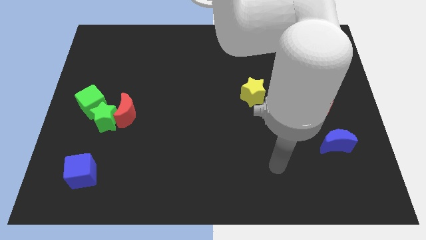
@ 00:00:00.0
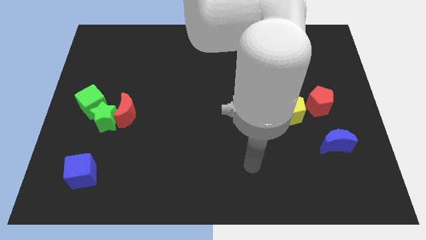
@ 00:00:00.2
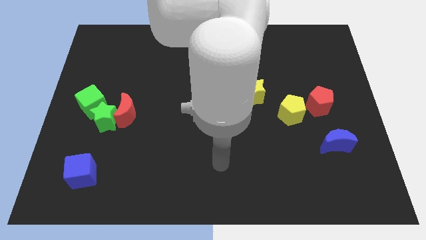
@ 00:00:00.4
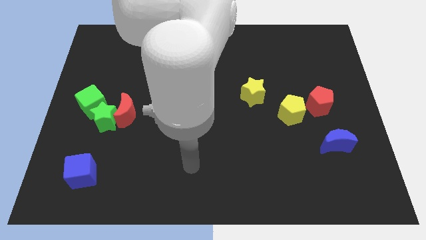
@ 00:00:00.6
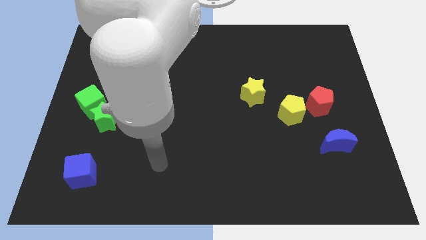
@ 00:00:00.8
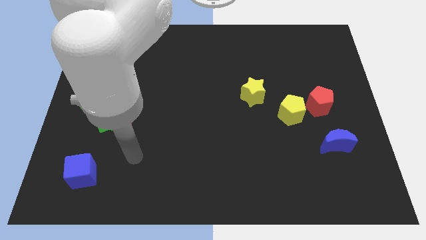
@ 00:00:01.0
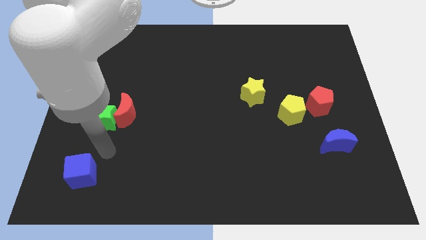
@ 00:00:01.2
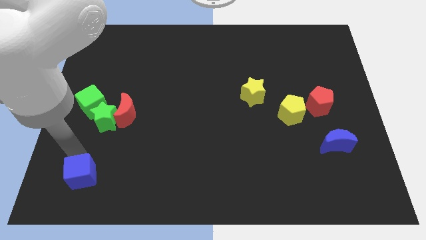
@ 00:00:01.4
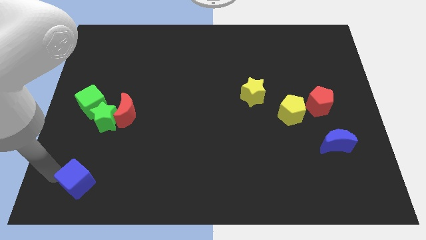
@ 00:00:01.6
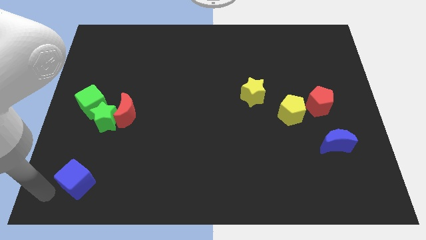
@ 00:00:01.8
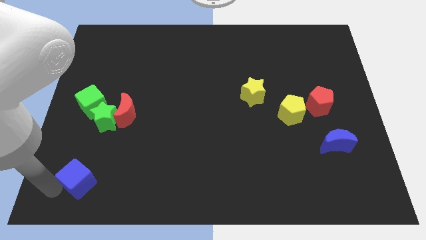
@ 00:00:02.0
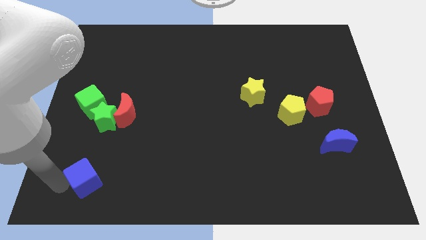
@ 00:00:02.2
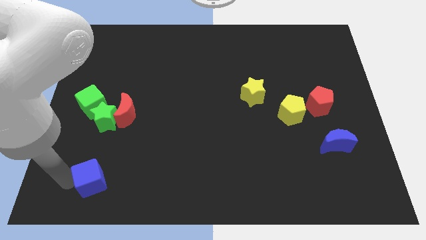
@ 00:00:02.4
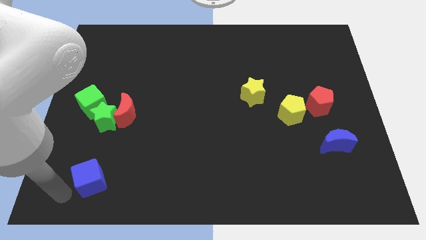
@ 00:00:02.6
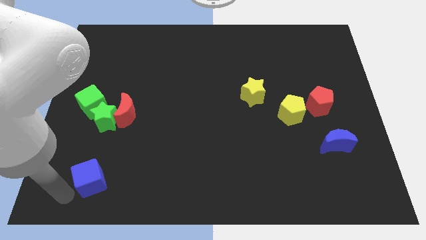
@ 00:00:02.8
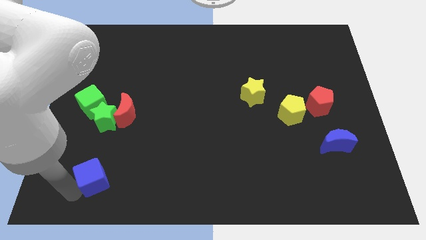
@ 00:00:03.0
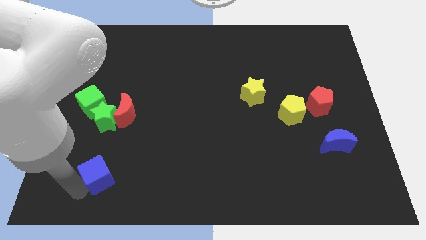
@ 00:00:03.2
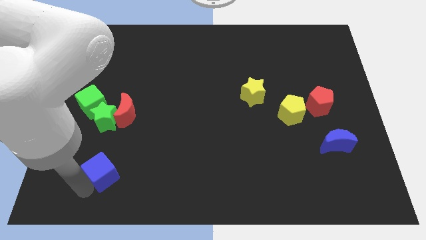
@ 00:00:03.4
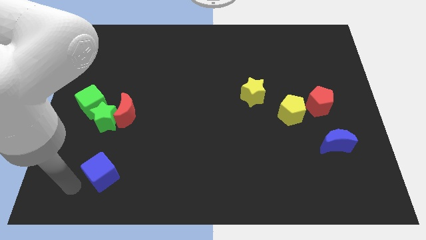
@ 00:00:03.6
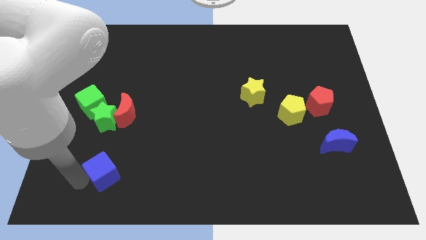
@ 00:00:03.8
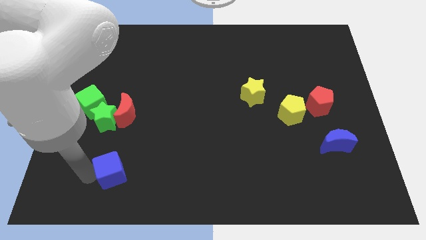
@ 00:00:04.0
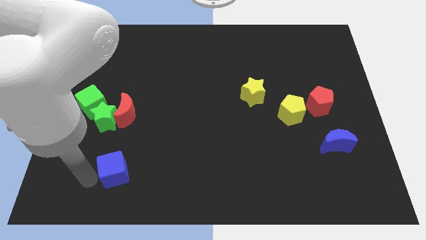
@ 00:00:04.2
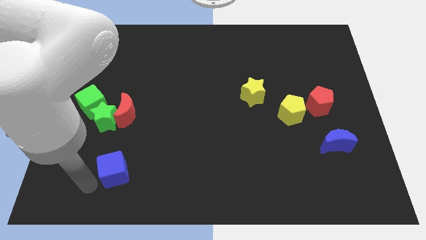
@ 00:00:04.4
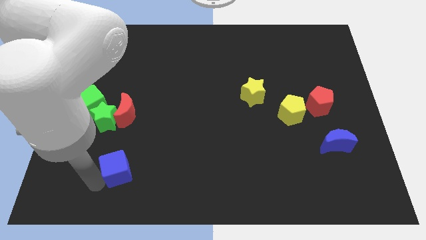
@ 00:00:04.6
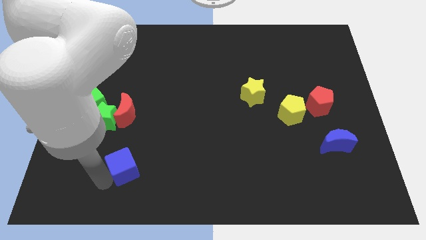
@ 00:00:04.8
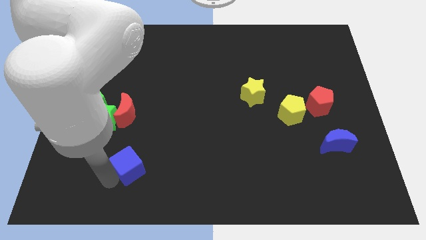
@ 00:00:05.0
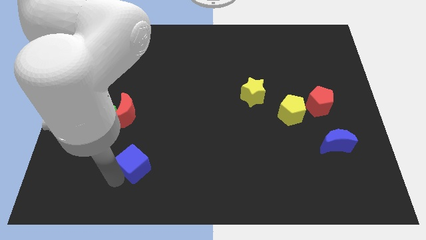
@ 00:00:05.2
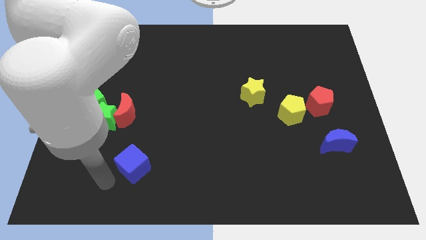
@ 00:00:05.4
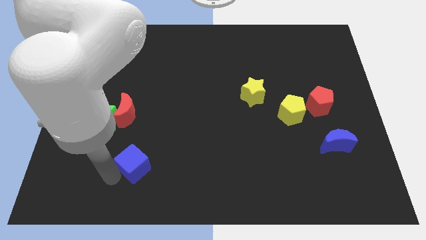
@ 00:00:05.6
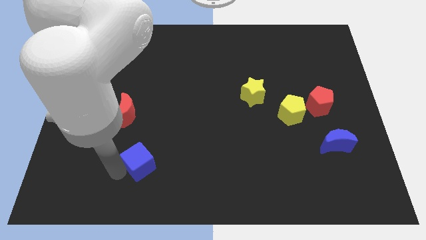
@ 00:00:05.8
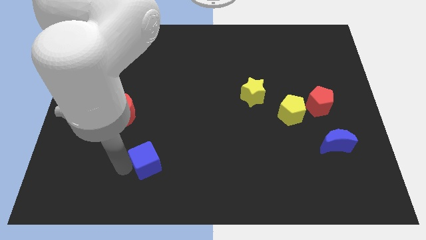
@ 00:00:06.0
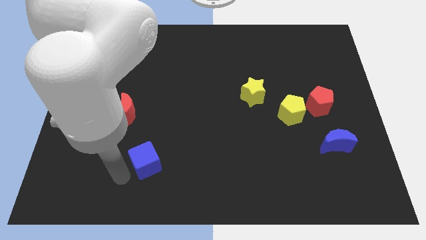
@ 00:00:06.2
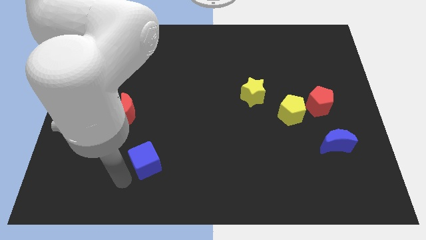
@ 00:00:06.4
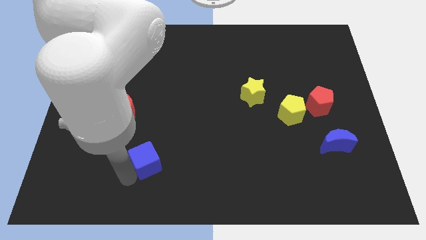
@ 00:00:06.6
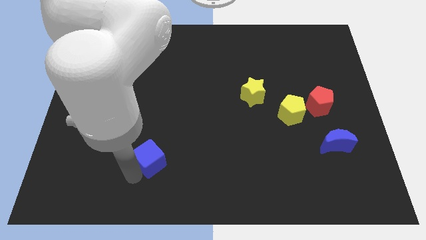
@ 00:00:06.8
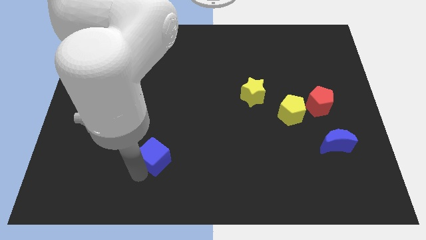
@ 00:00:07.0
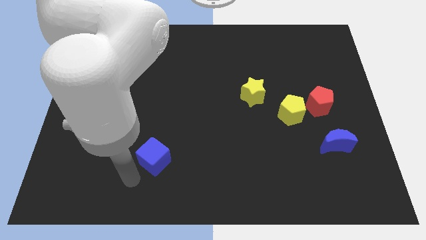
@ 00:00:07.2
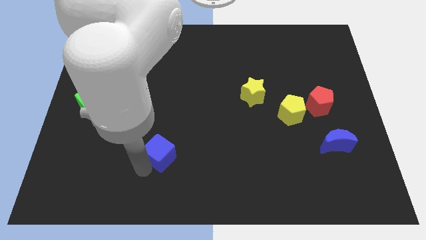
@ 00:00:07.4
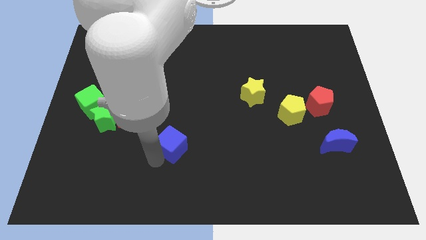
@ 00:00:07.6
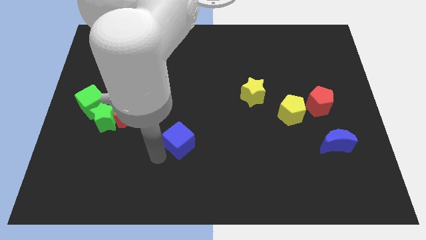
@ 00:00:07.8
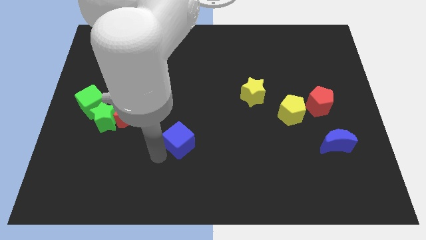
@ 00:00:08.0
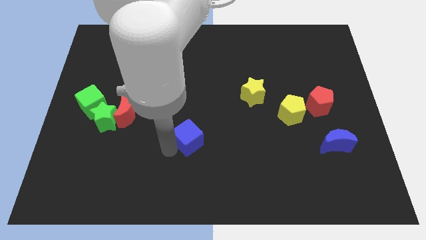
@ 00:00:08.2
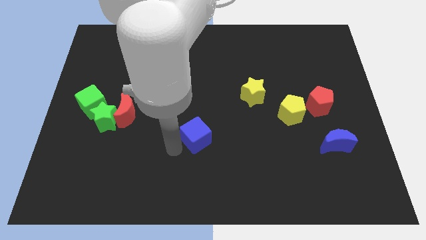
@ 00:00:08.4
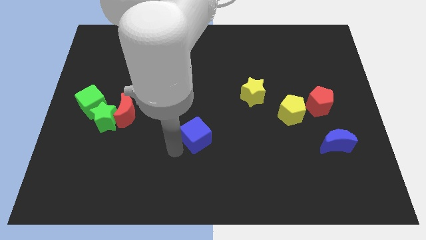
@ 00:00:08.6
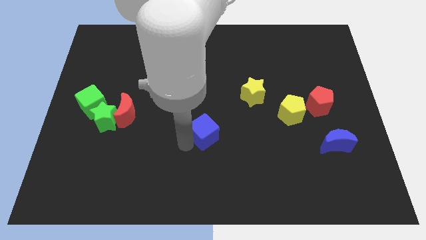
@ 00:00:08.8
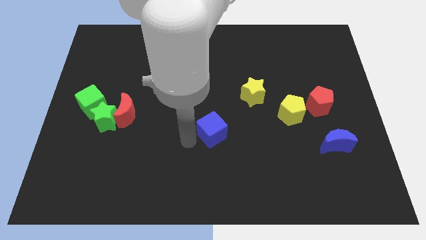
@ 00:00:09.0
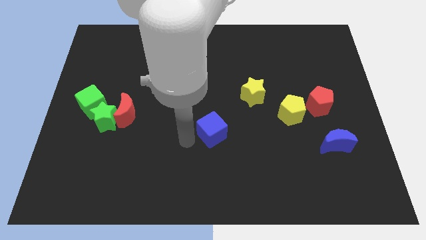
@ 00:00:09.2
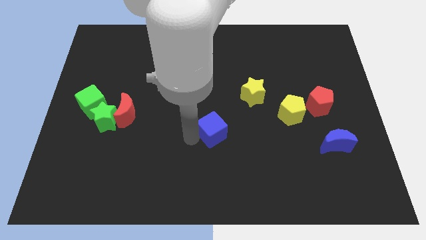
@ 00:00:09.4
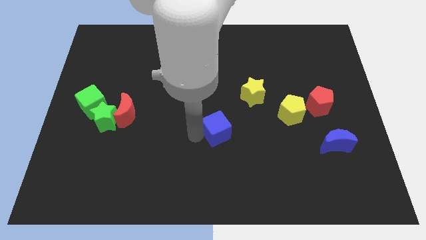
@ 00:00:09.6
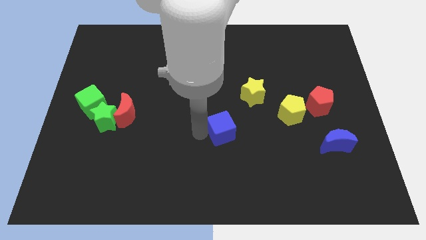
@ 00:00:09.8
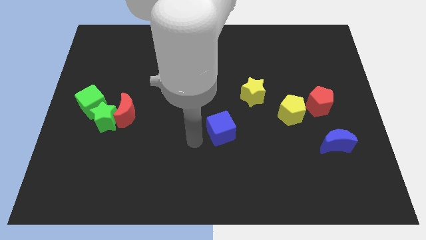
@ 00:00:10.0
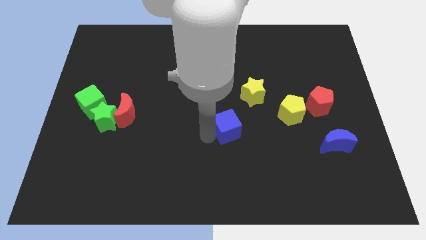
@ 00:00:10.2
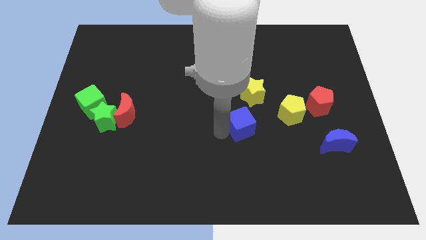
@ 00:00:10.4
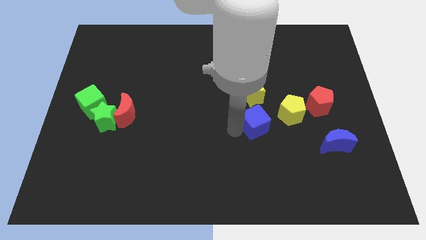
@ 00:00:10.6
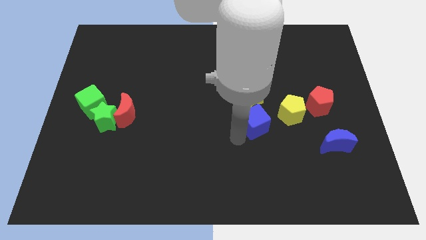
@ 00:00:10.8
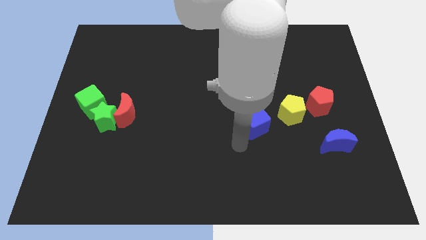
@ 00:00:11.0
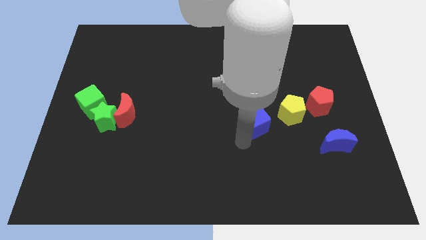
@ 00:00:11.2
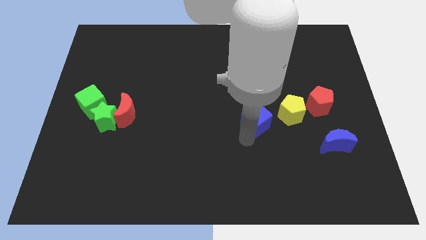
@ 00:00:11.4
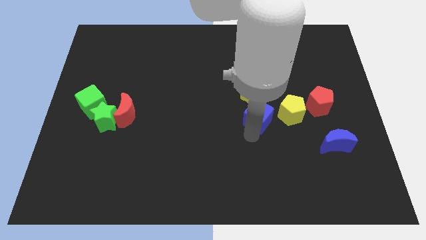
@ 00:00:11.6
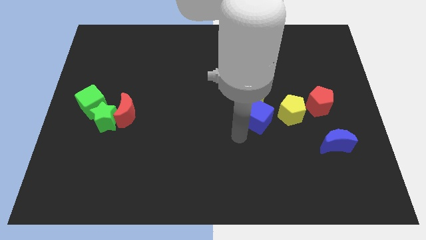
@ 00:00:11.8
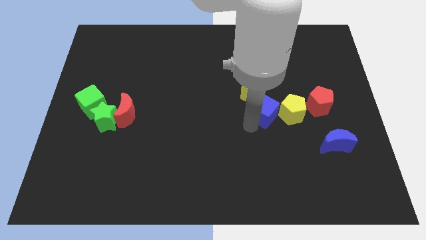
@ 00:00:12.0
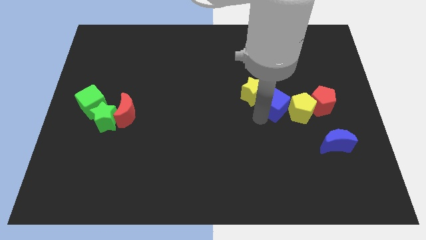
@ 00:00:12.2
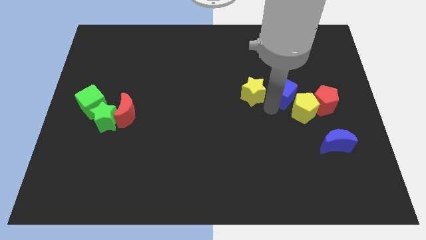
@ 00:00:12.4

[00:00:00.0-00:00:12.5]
push the blue cube diagonally up and to the left of the red pentagon
